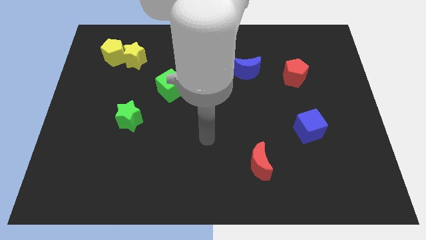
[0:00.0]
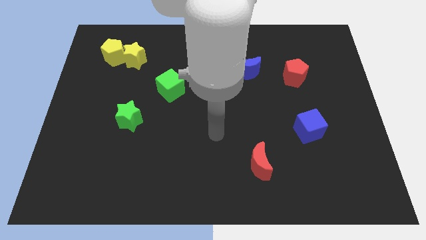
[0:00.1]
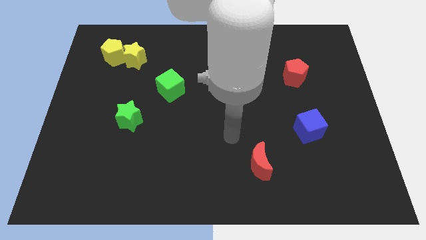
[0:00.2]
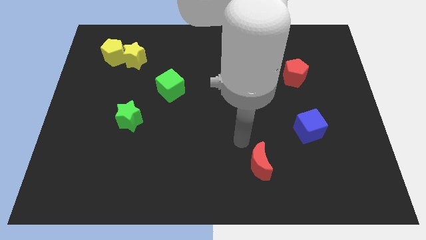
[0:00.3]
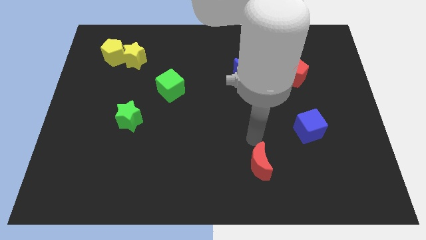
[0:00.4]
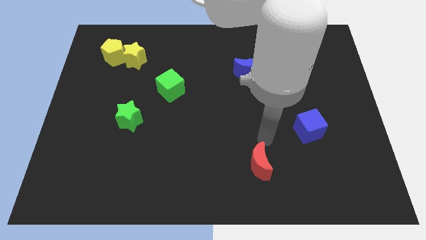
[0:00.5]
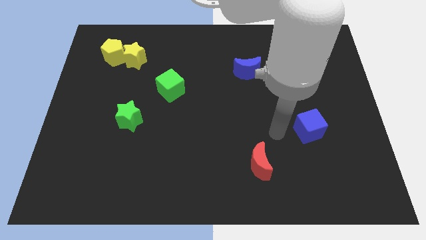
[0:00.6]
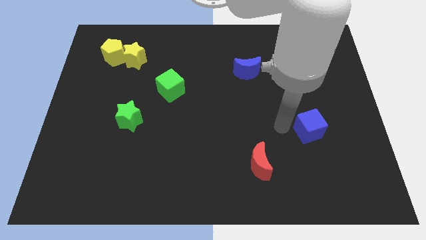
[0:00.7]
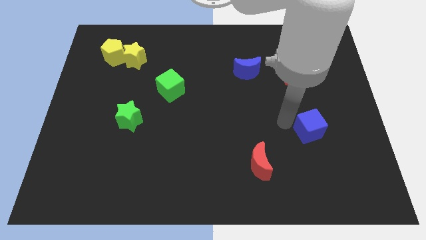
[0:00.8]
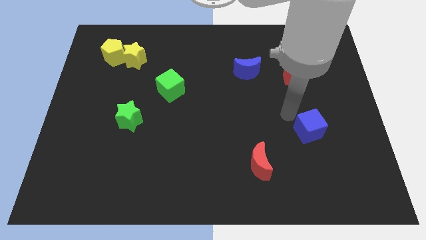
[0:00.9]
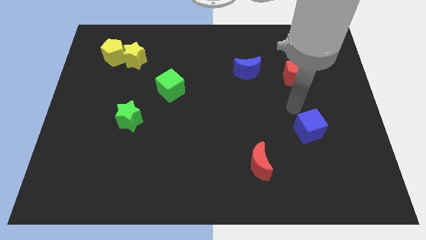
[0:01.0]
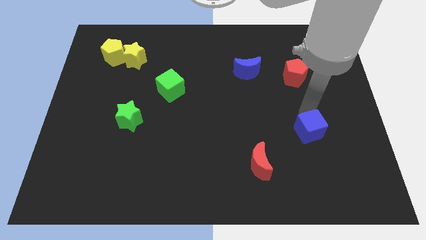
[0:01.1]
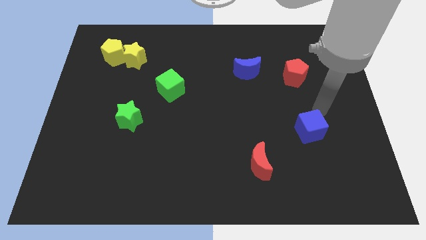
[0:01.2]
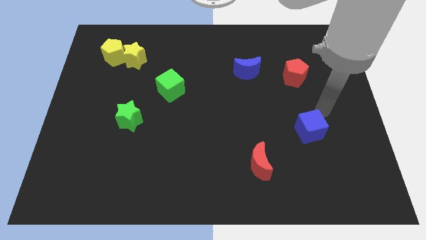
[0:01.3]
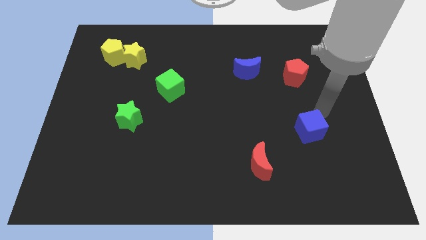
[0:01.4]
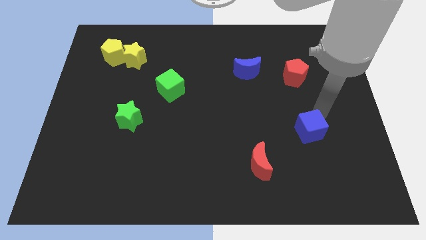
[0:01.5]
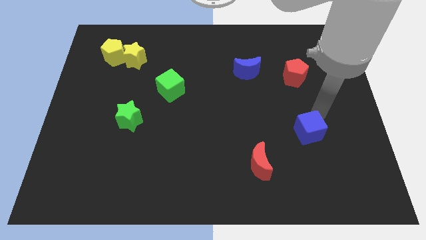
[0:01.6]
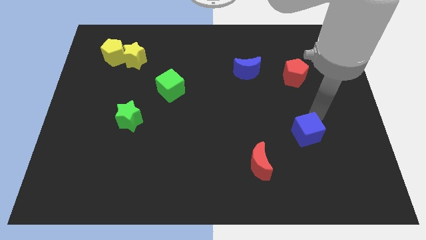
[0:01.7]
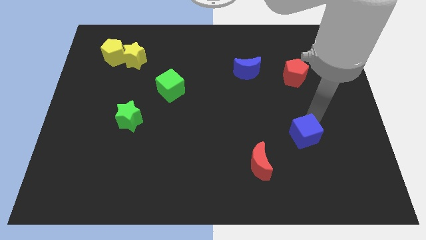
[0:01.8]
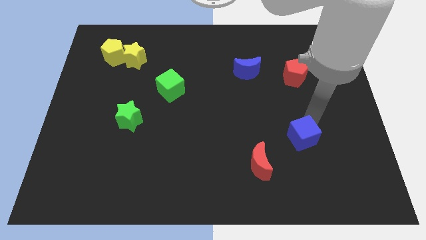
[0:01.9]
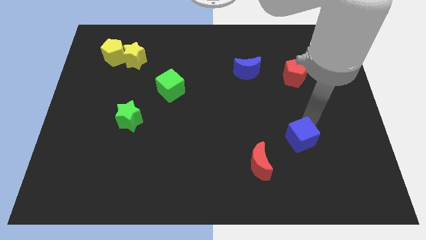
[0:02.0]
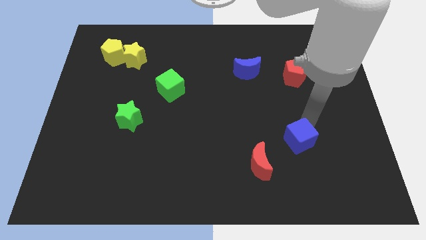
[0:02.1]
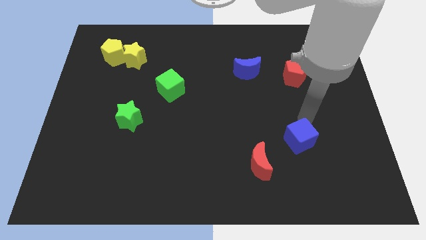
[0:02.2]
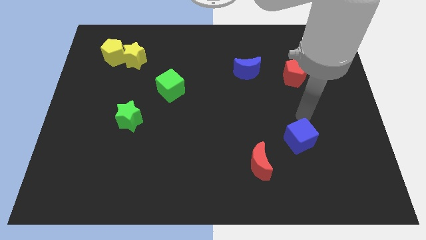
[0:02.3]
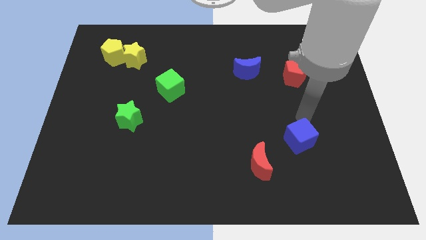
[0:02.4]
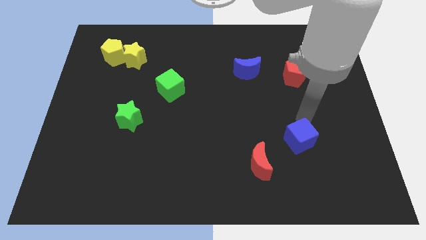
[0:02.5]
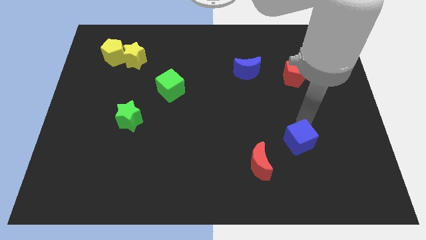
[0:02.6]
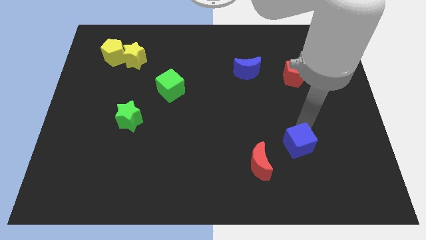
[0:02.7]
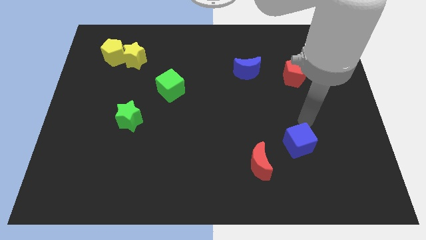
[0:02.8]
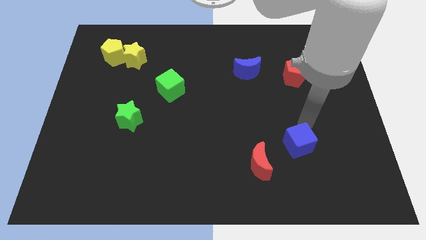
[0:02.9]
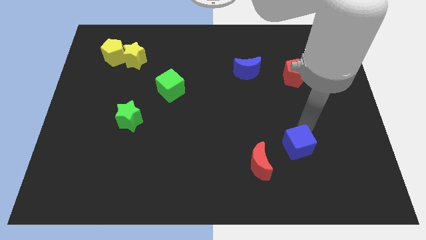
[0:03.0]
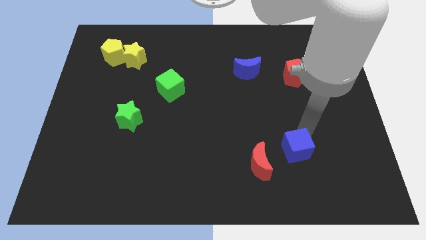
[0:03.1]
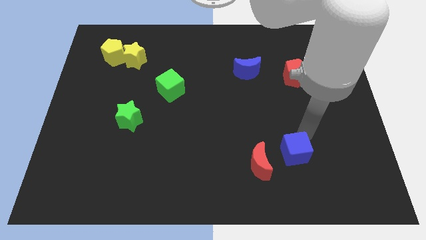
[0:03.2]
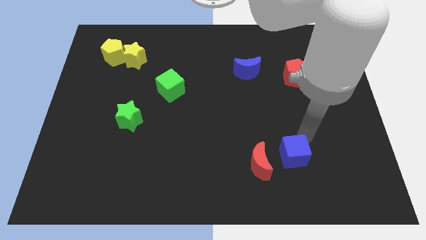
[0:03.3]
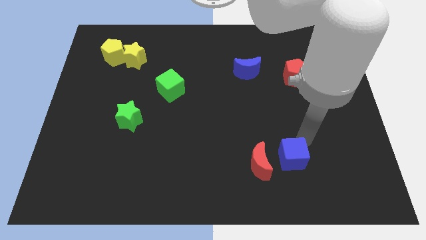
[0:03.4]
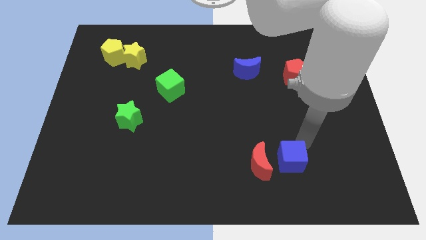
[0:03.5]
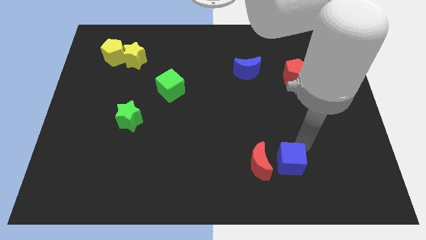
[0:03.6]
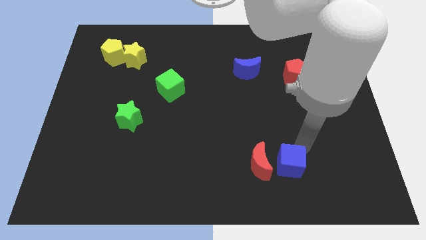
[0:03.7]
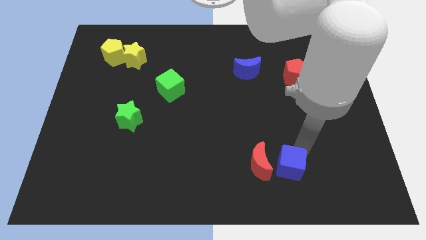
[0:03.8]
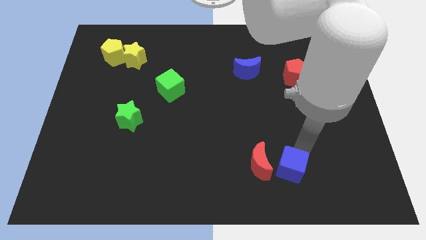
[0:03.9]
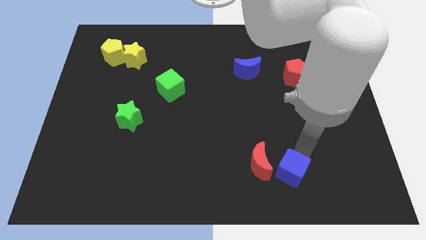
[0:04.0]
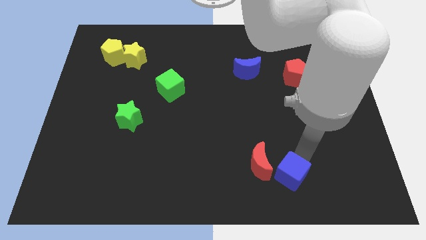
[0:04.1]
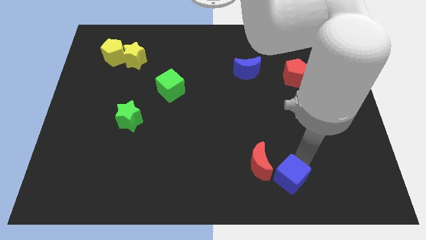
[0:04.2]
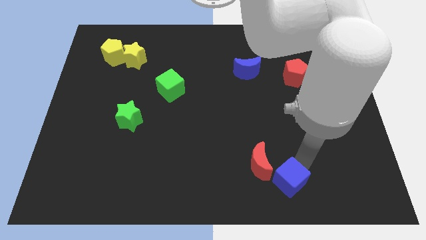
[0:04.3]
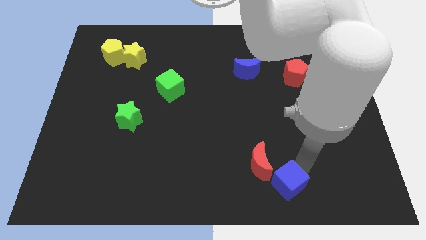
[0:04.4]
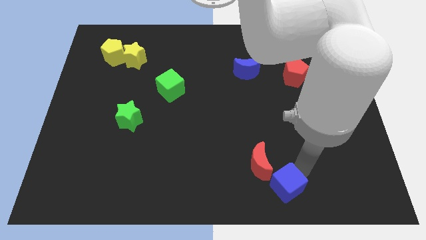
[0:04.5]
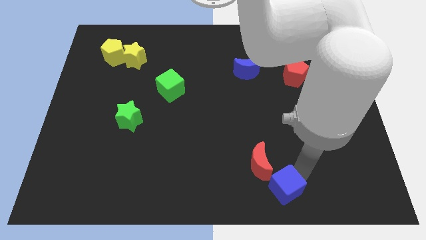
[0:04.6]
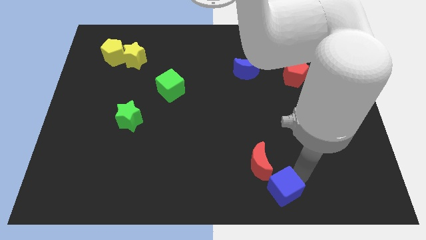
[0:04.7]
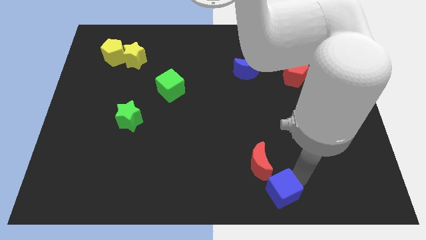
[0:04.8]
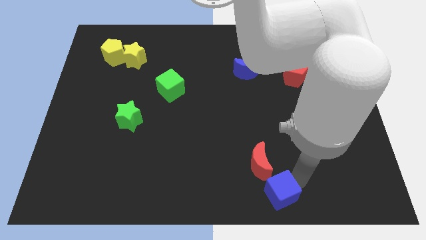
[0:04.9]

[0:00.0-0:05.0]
push the blue cube to the bottom

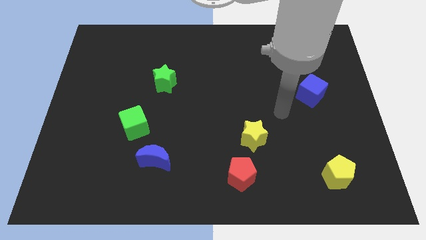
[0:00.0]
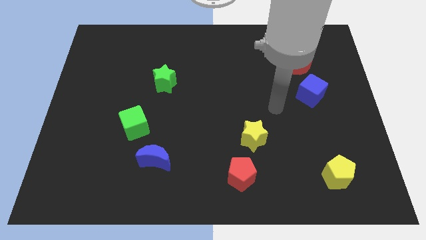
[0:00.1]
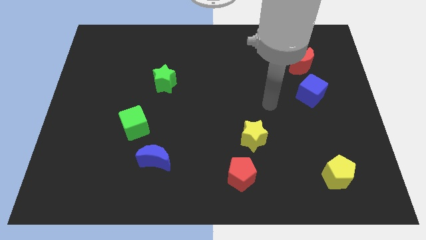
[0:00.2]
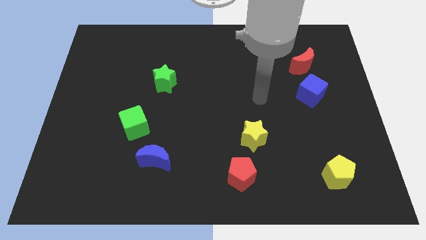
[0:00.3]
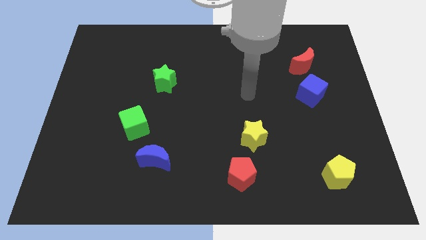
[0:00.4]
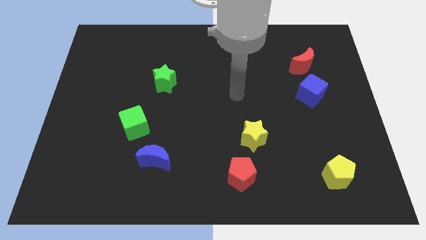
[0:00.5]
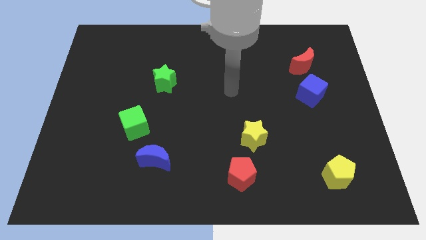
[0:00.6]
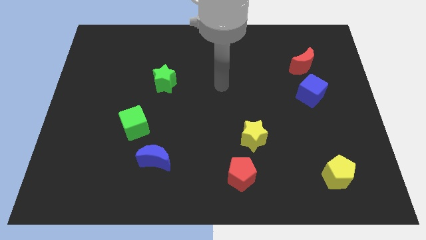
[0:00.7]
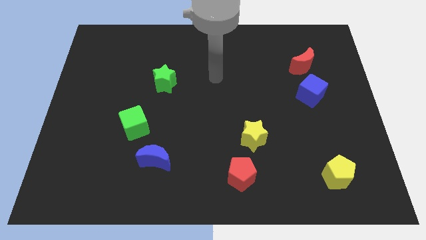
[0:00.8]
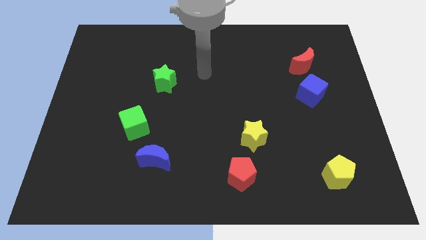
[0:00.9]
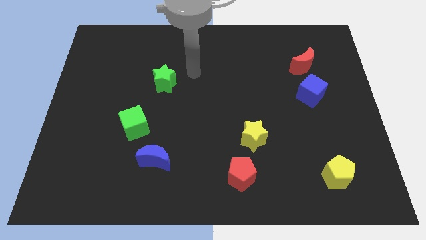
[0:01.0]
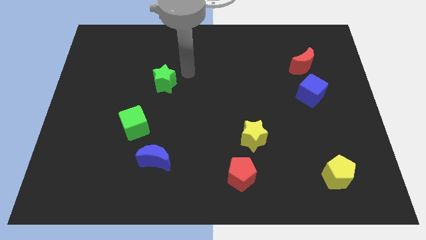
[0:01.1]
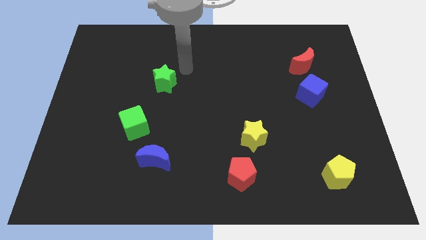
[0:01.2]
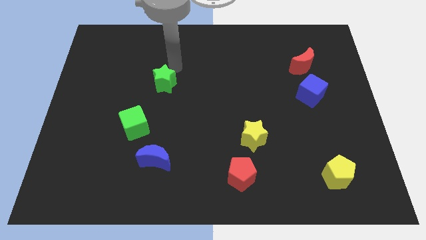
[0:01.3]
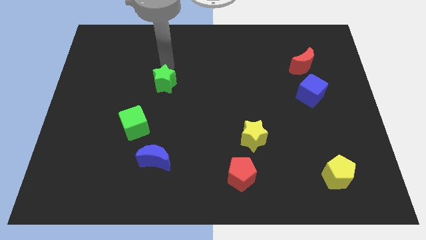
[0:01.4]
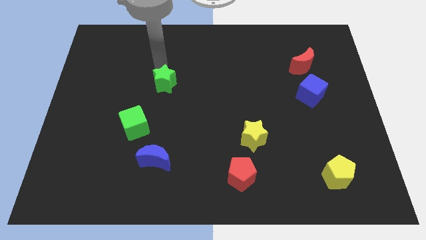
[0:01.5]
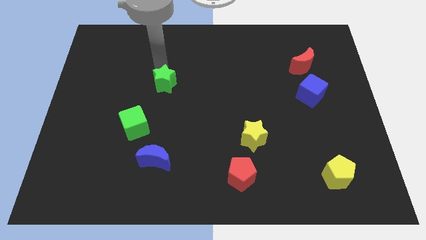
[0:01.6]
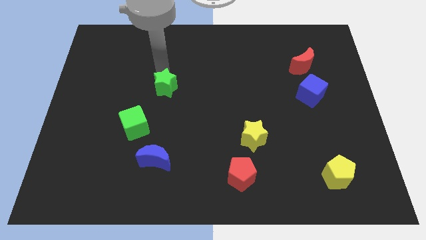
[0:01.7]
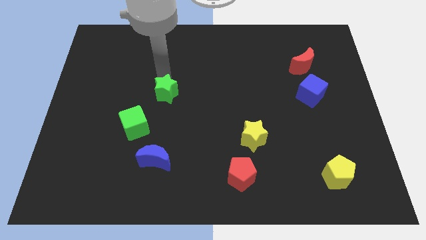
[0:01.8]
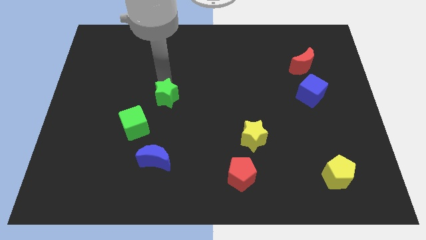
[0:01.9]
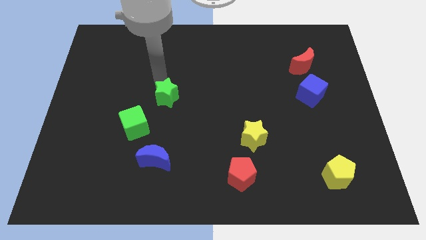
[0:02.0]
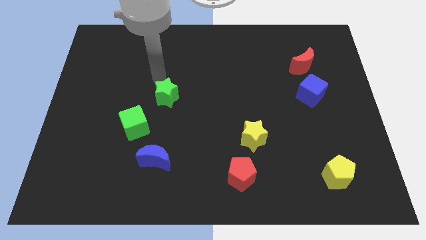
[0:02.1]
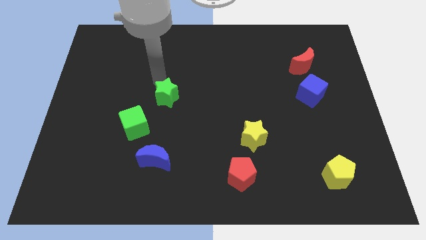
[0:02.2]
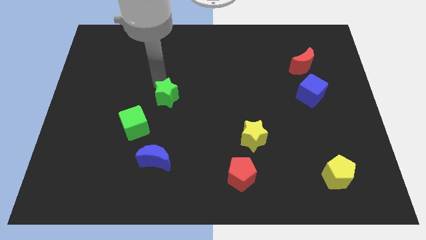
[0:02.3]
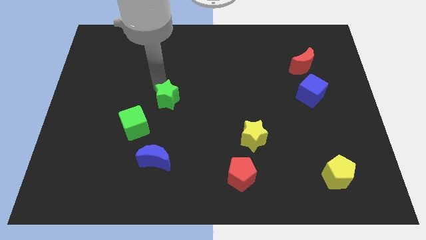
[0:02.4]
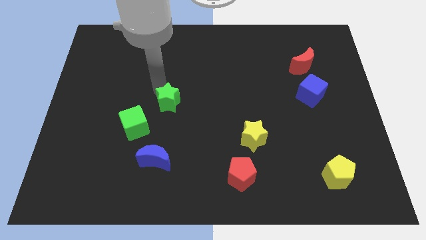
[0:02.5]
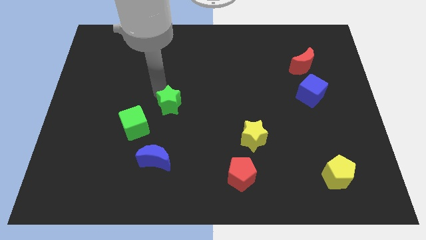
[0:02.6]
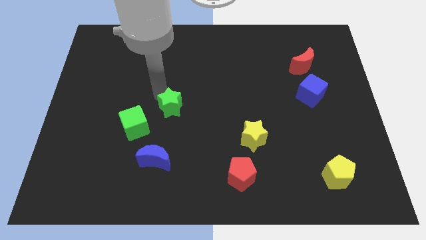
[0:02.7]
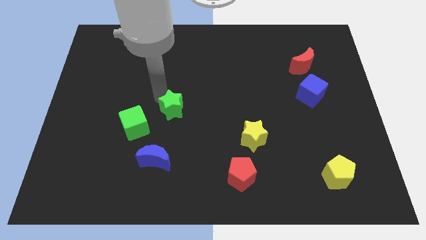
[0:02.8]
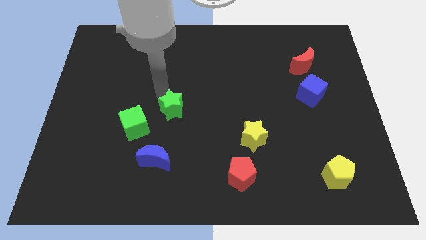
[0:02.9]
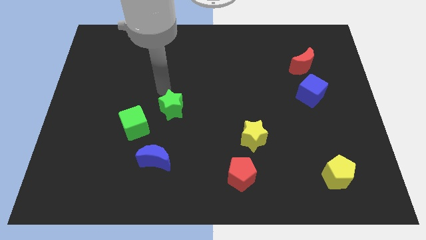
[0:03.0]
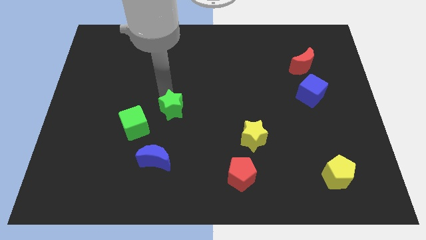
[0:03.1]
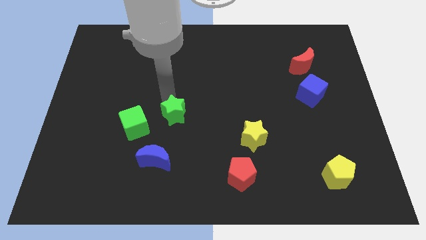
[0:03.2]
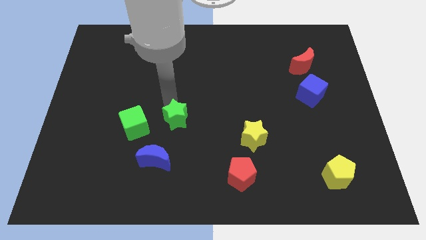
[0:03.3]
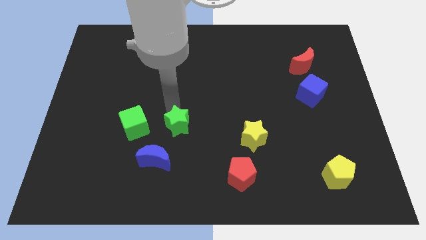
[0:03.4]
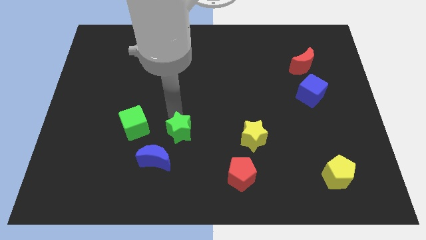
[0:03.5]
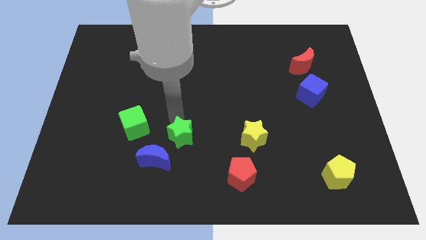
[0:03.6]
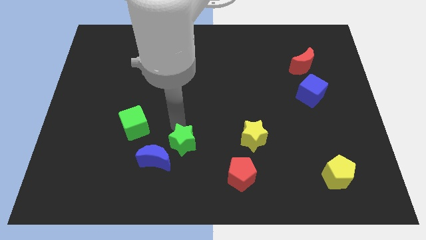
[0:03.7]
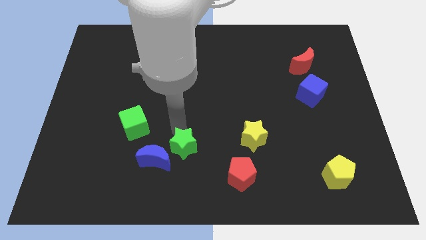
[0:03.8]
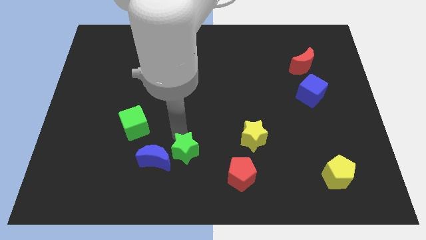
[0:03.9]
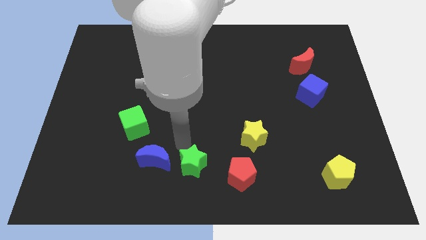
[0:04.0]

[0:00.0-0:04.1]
push the green star to the bottom
